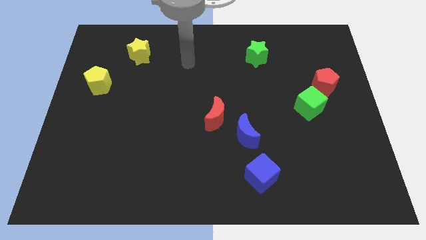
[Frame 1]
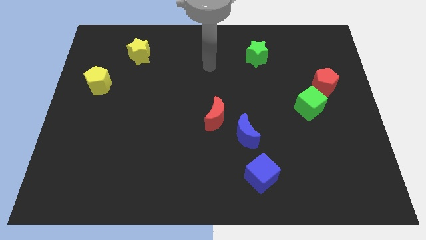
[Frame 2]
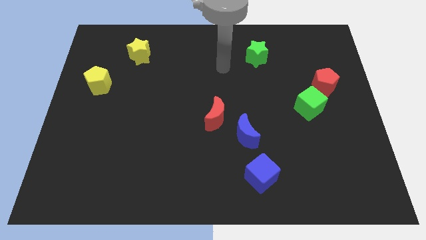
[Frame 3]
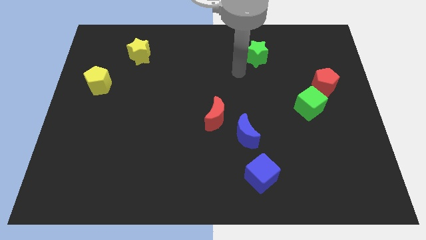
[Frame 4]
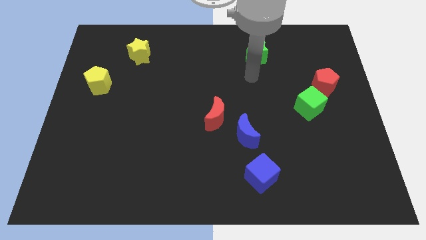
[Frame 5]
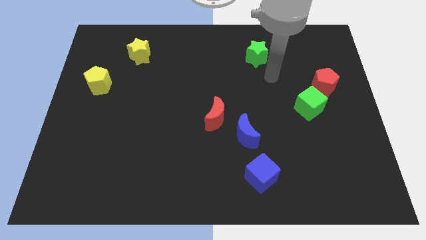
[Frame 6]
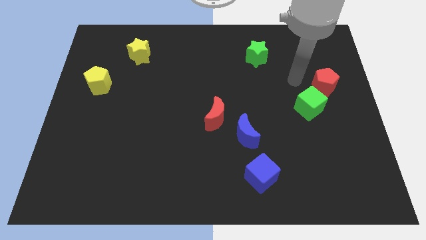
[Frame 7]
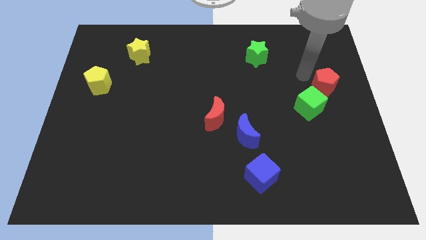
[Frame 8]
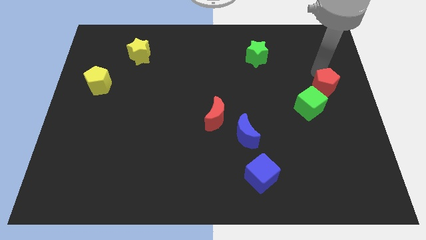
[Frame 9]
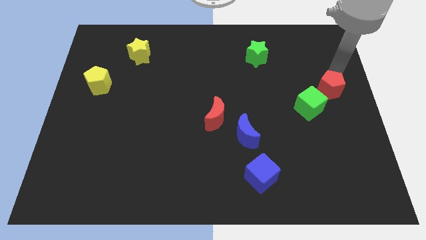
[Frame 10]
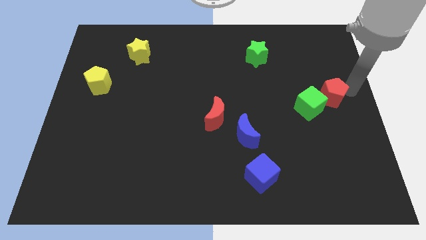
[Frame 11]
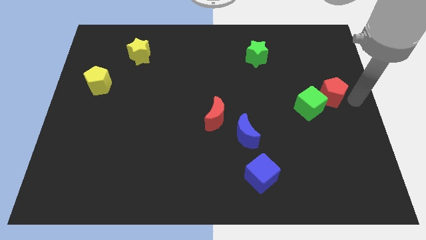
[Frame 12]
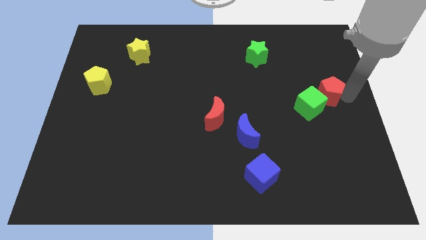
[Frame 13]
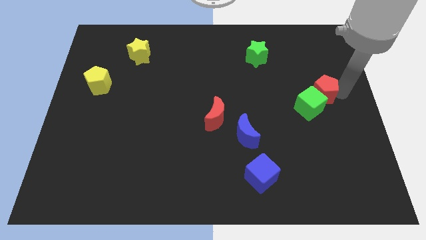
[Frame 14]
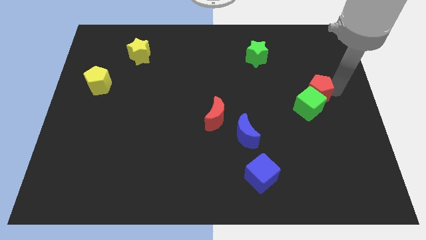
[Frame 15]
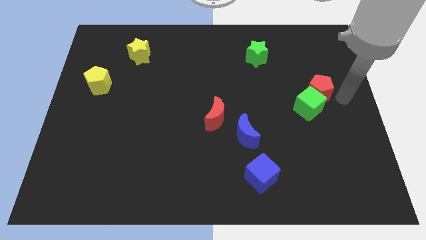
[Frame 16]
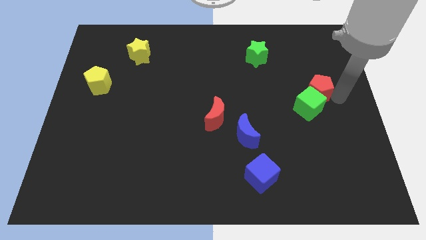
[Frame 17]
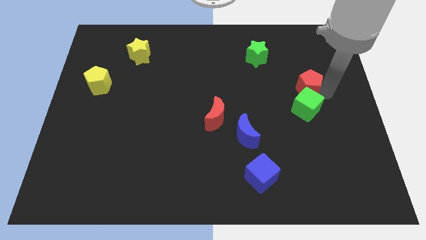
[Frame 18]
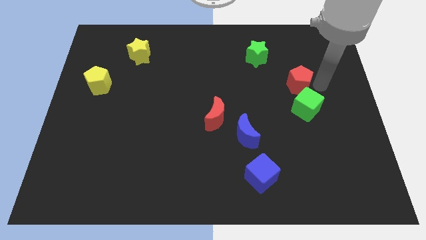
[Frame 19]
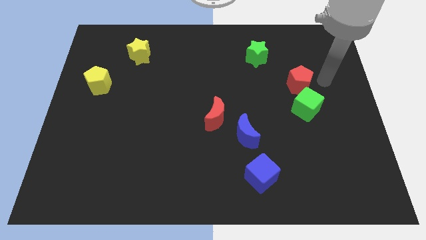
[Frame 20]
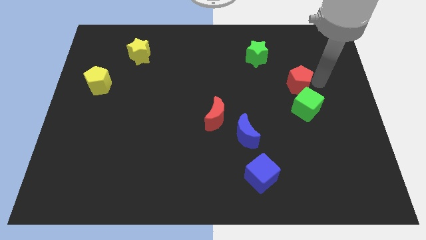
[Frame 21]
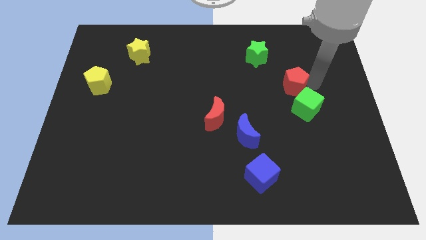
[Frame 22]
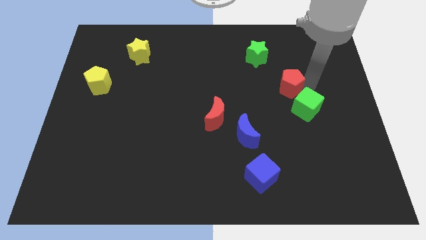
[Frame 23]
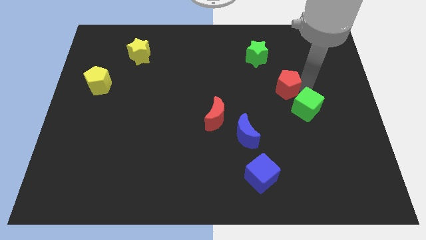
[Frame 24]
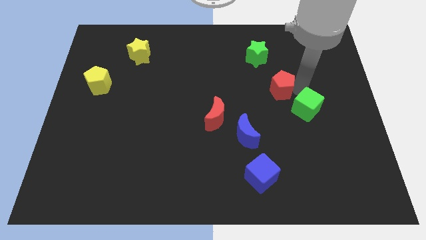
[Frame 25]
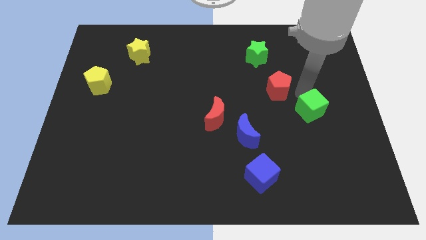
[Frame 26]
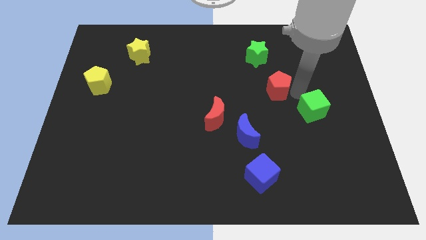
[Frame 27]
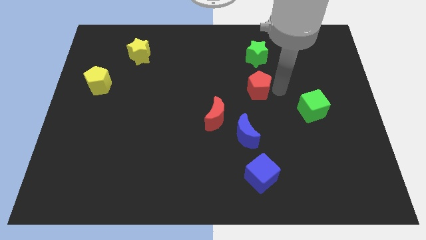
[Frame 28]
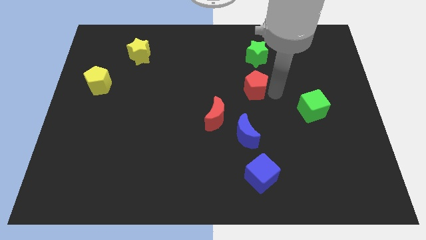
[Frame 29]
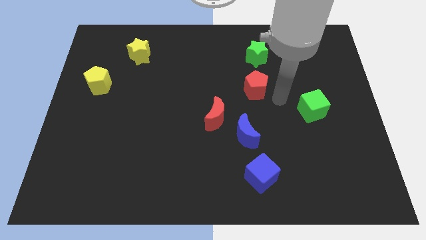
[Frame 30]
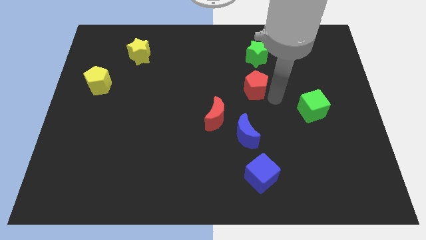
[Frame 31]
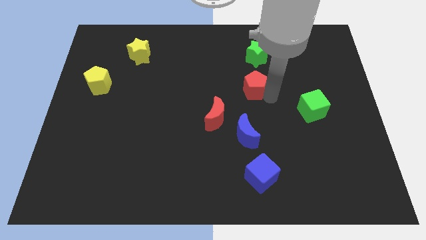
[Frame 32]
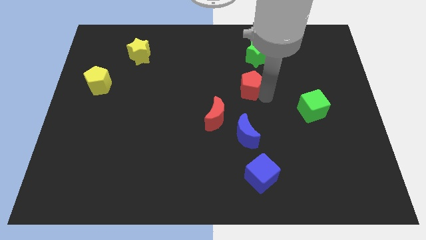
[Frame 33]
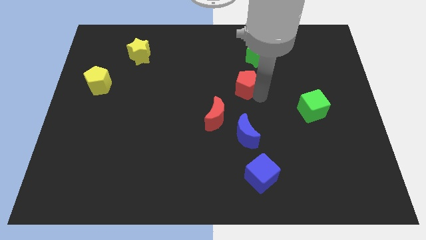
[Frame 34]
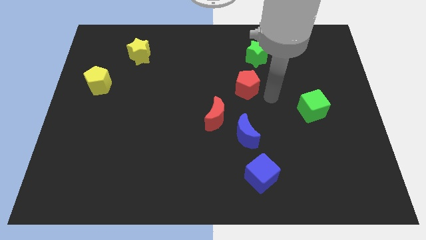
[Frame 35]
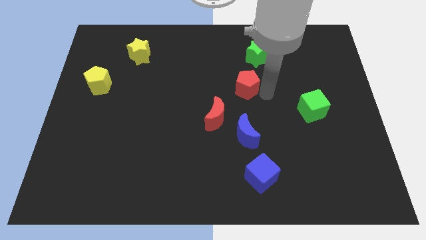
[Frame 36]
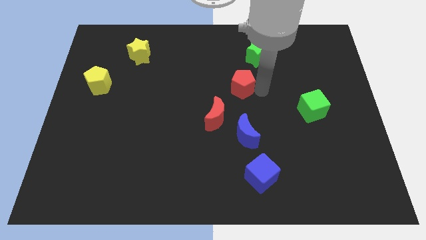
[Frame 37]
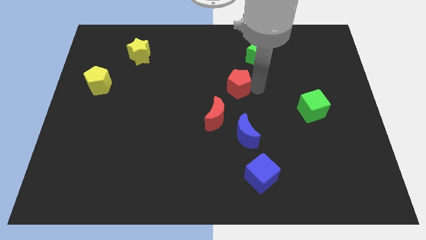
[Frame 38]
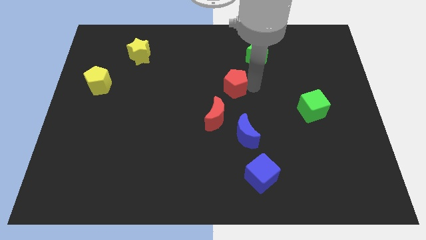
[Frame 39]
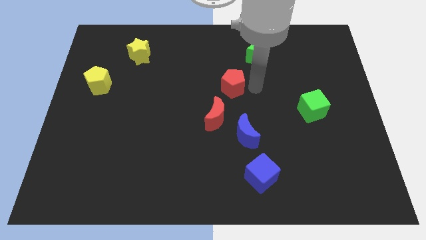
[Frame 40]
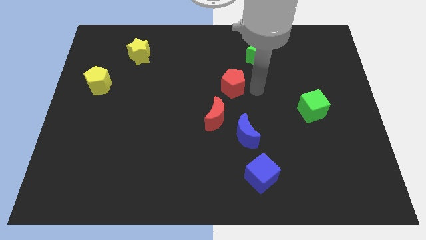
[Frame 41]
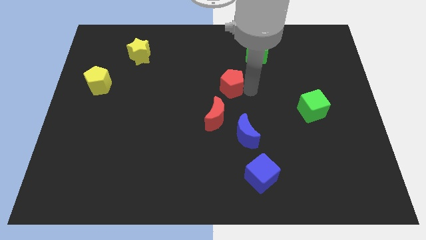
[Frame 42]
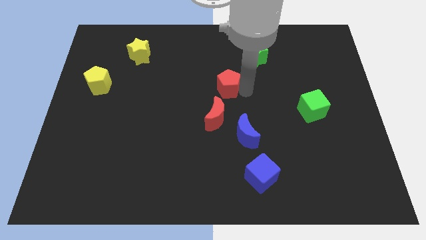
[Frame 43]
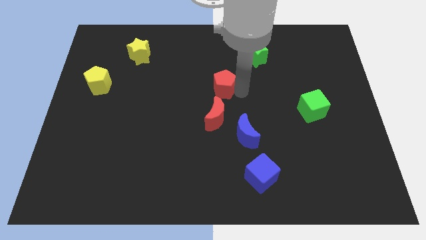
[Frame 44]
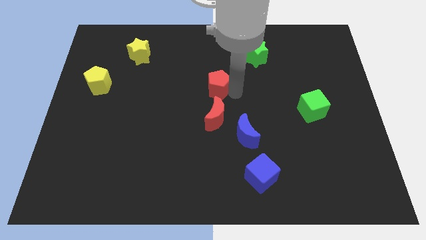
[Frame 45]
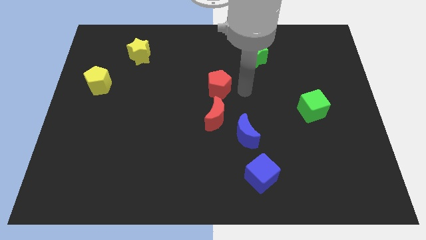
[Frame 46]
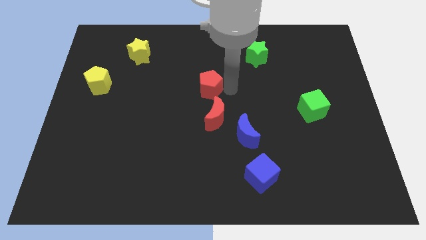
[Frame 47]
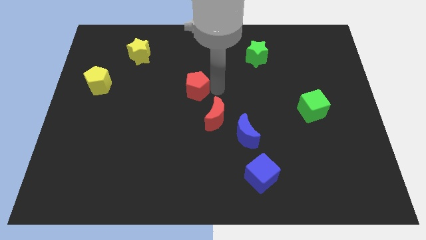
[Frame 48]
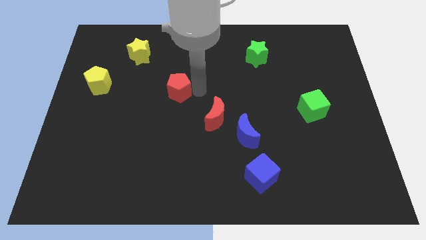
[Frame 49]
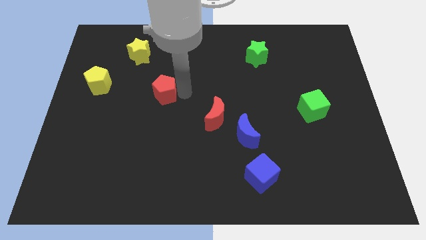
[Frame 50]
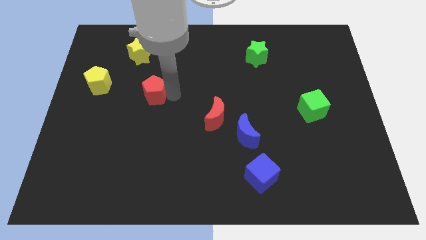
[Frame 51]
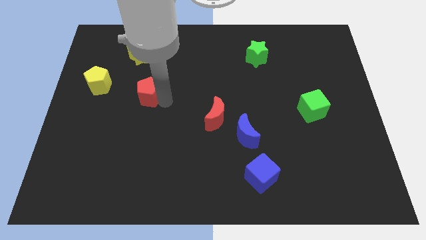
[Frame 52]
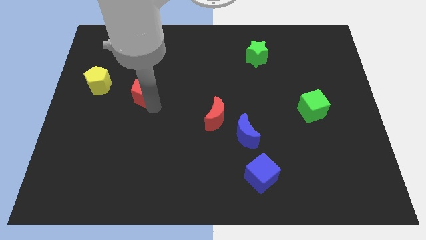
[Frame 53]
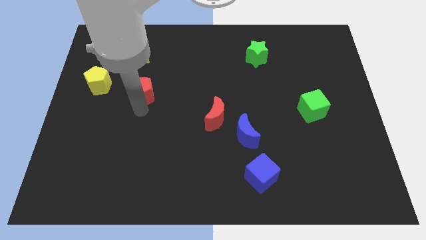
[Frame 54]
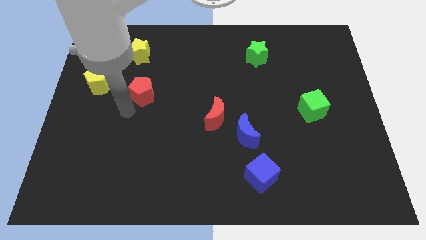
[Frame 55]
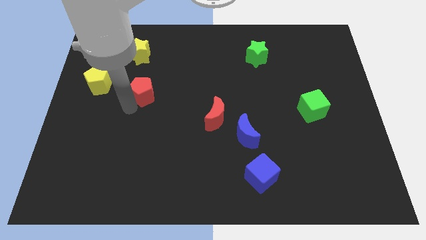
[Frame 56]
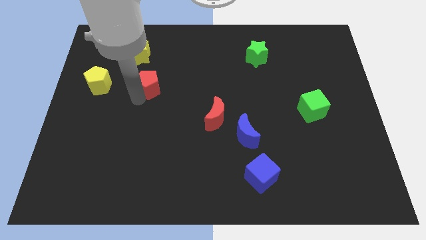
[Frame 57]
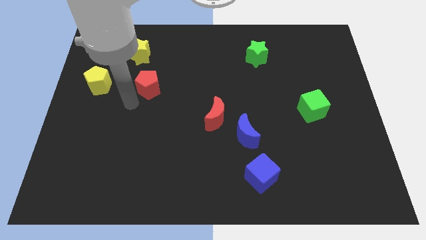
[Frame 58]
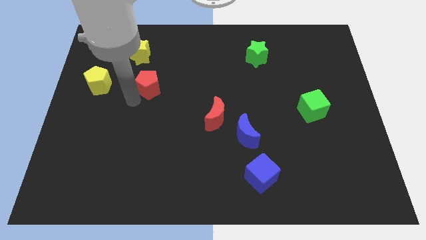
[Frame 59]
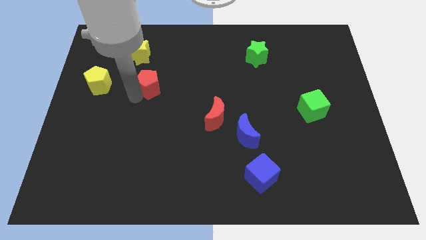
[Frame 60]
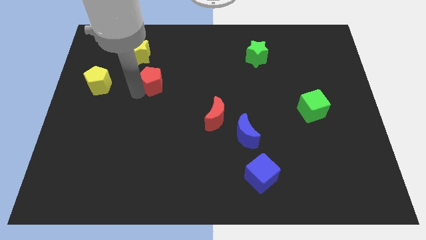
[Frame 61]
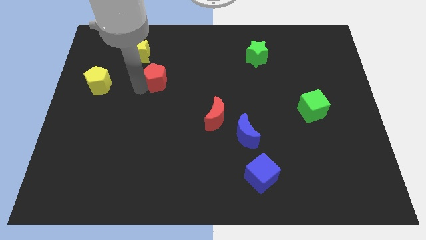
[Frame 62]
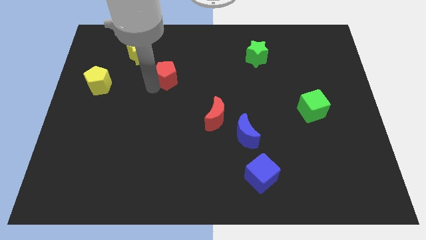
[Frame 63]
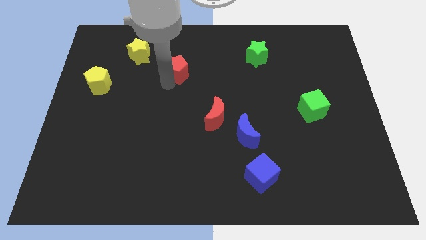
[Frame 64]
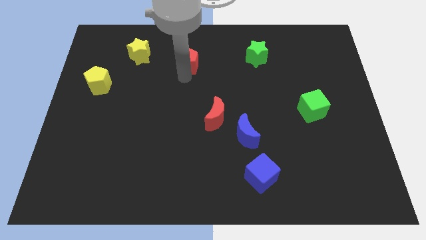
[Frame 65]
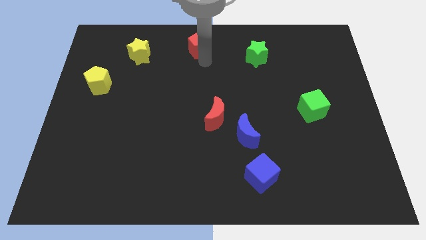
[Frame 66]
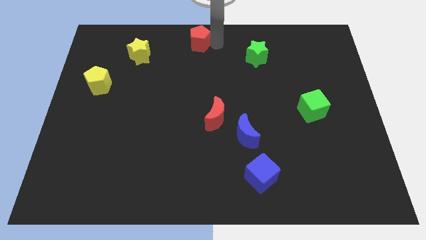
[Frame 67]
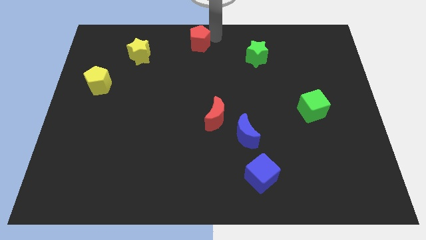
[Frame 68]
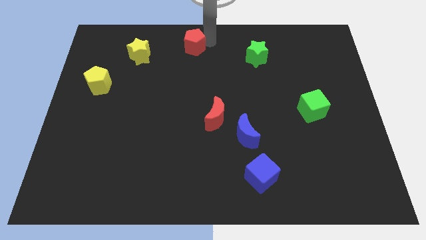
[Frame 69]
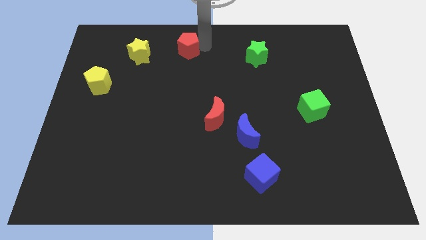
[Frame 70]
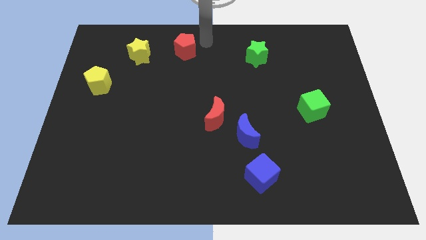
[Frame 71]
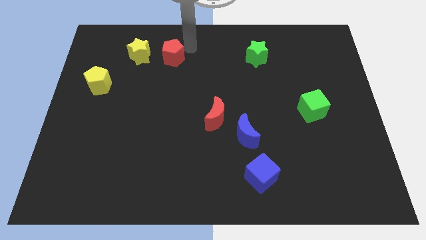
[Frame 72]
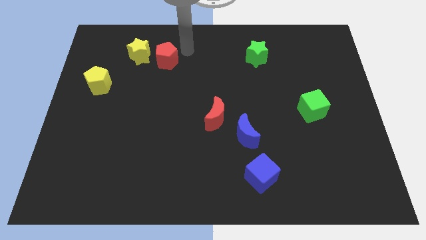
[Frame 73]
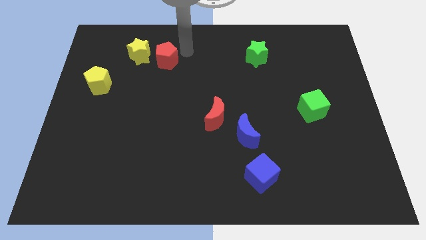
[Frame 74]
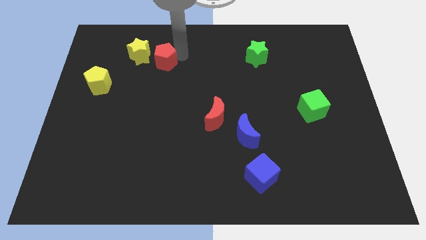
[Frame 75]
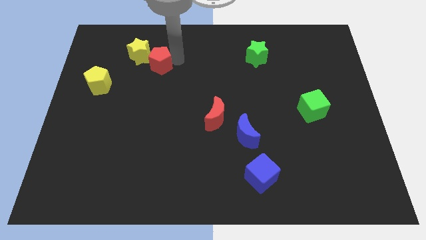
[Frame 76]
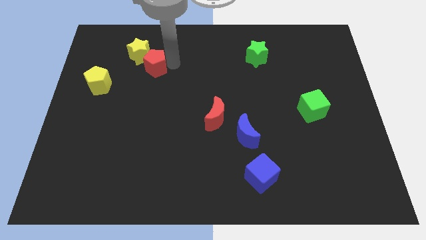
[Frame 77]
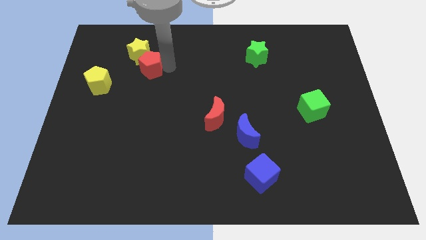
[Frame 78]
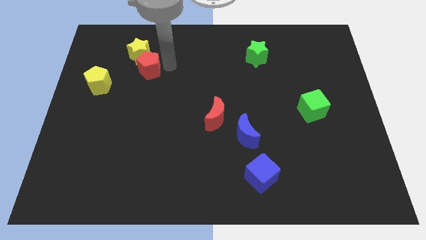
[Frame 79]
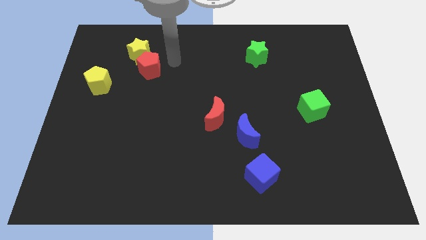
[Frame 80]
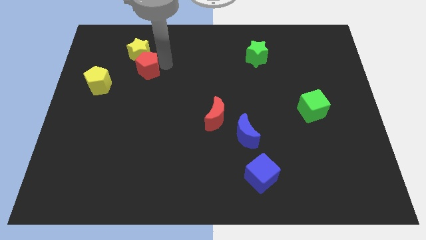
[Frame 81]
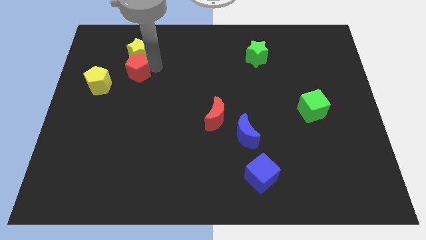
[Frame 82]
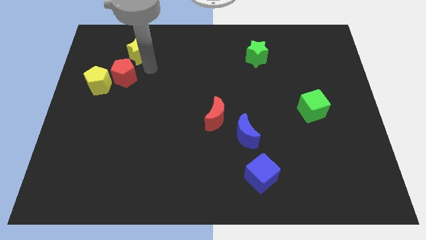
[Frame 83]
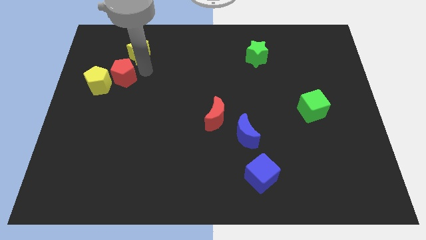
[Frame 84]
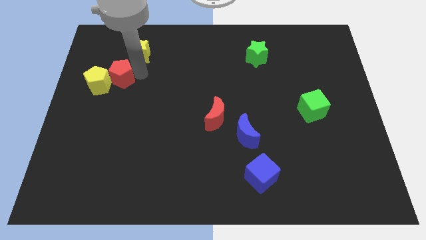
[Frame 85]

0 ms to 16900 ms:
move the red pentagon towards the yellow pentagon
